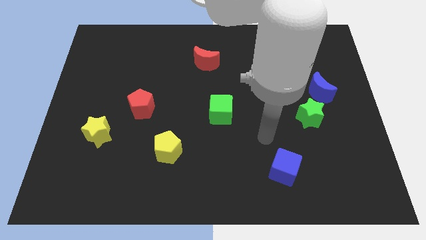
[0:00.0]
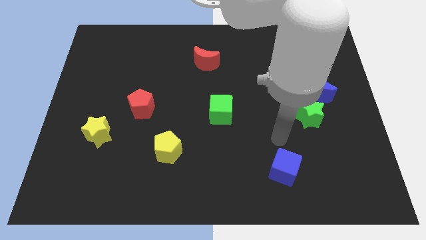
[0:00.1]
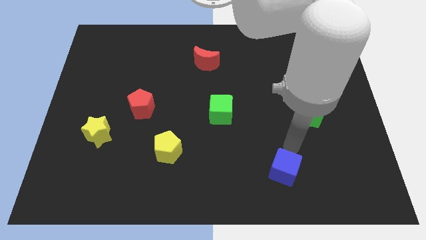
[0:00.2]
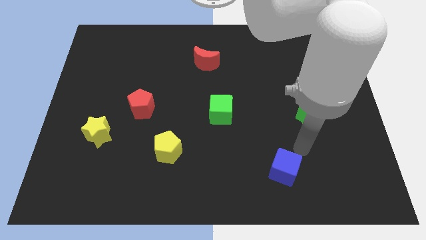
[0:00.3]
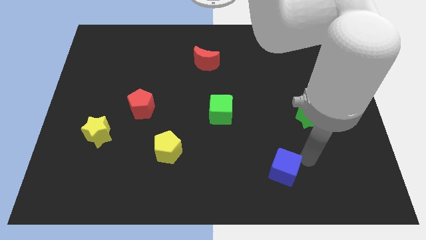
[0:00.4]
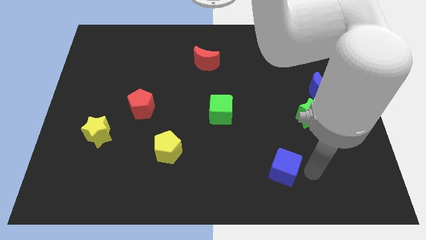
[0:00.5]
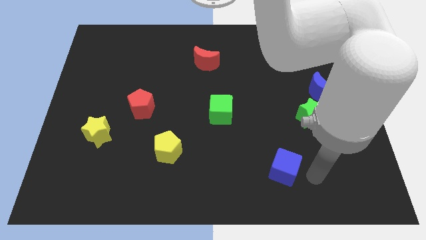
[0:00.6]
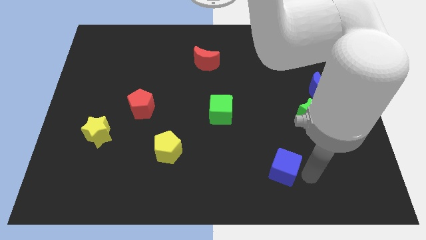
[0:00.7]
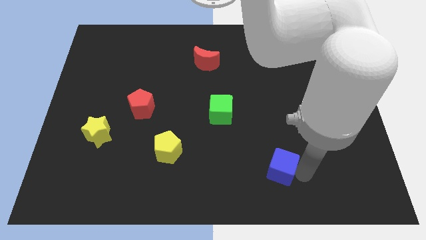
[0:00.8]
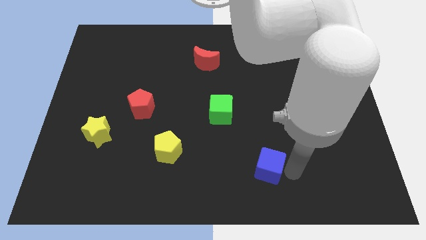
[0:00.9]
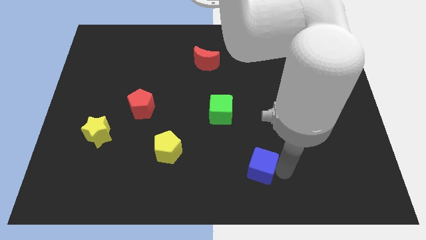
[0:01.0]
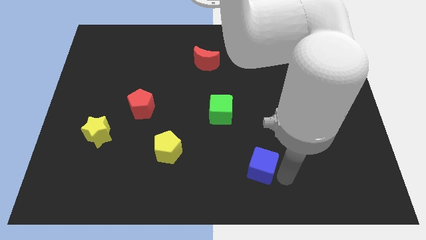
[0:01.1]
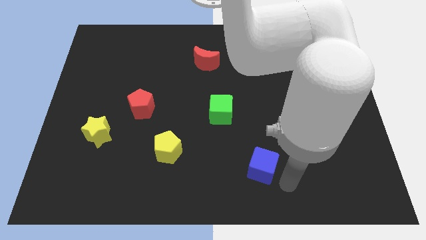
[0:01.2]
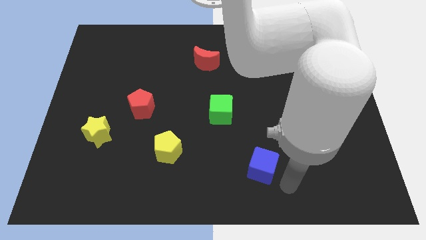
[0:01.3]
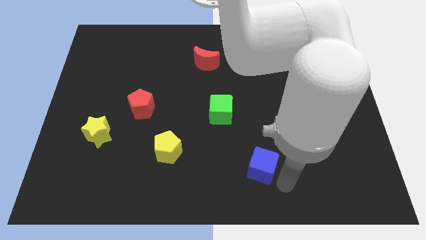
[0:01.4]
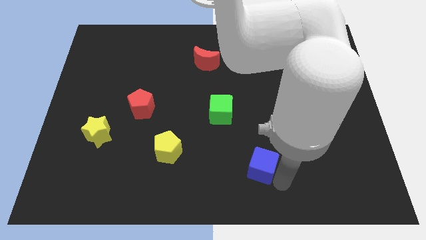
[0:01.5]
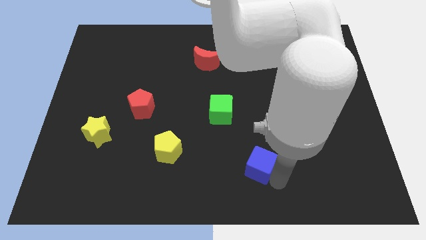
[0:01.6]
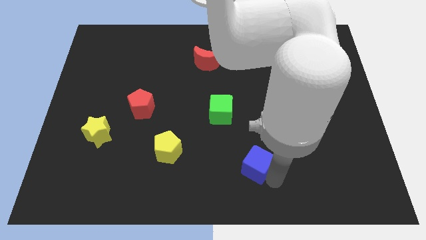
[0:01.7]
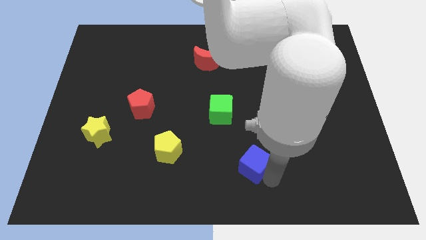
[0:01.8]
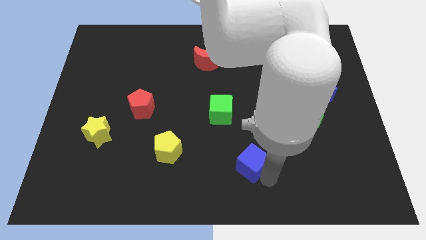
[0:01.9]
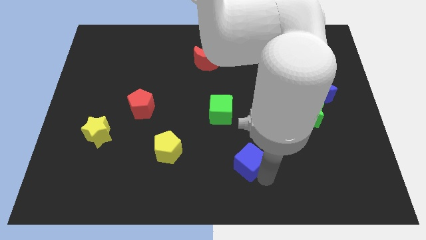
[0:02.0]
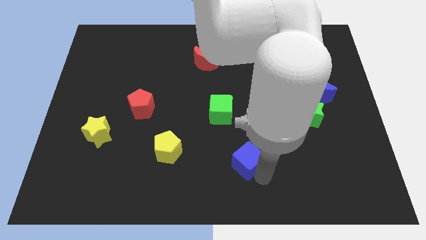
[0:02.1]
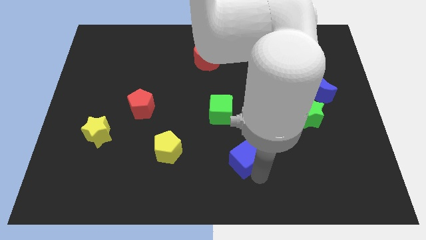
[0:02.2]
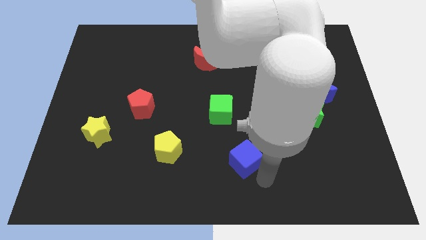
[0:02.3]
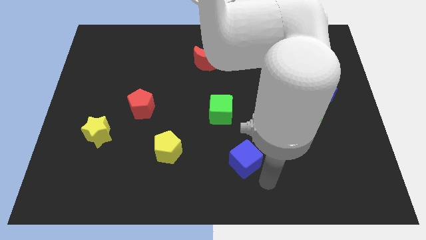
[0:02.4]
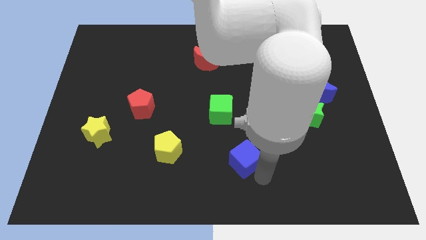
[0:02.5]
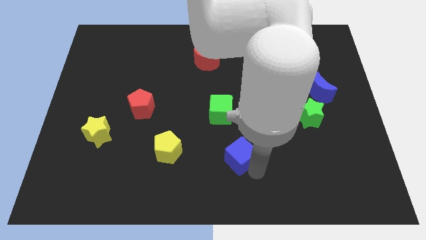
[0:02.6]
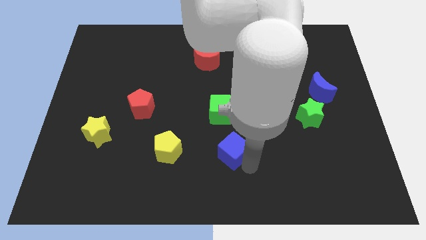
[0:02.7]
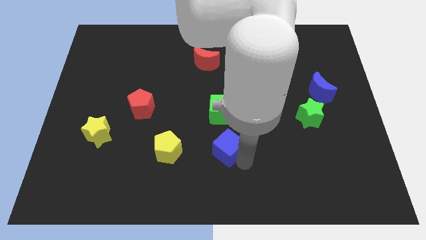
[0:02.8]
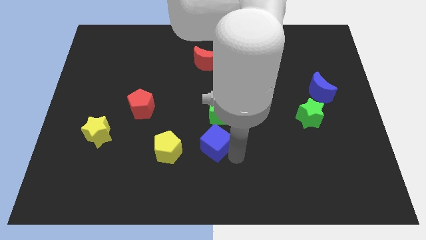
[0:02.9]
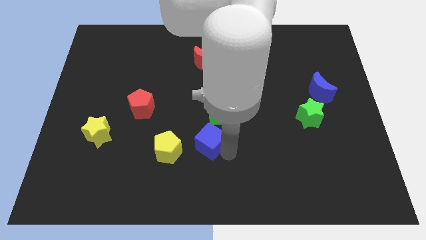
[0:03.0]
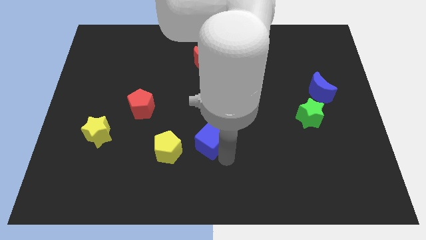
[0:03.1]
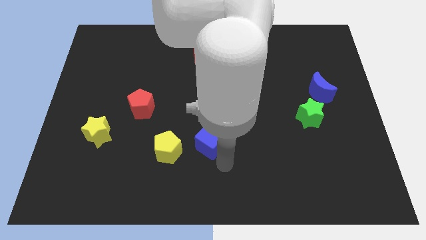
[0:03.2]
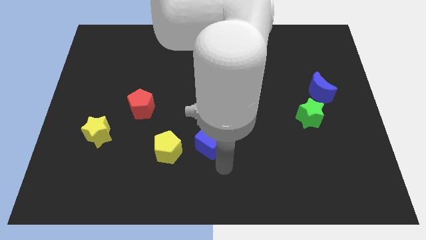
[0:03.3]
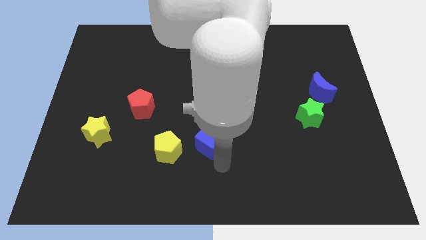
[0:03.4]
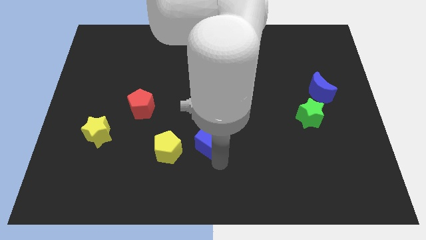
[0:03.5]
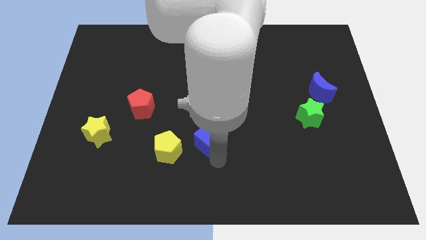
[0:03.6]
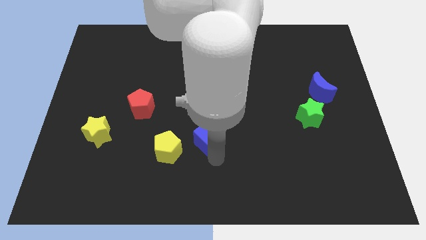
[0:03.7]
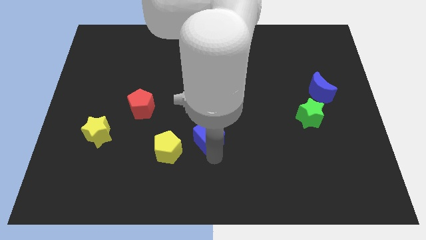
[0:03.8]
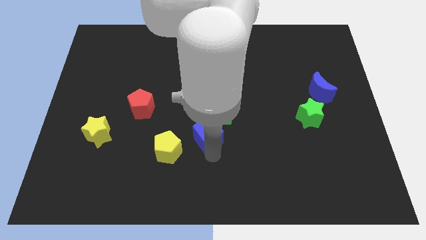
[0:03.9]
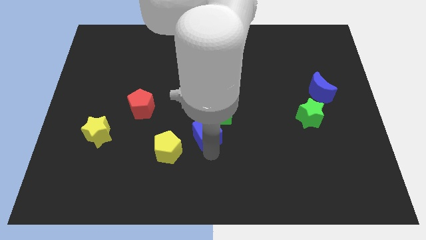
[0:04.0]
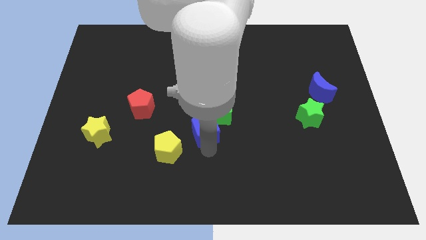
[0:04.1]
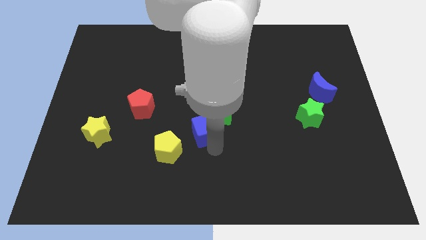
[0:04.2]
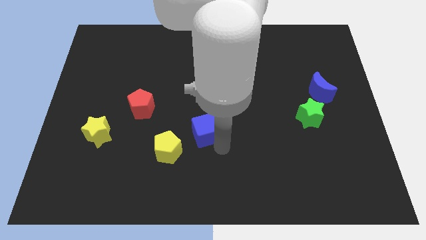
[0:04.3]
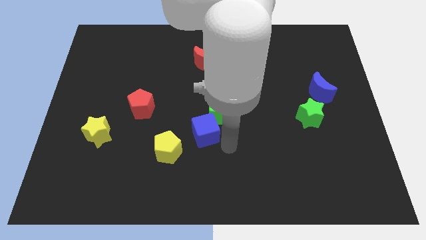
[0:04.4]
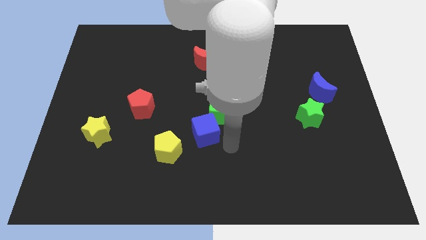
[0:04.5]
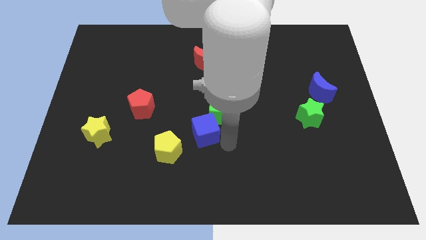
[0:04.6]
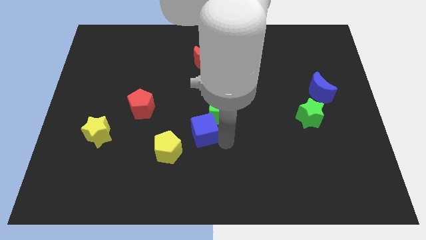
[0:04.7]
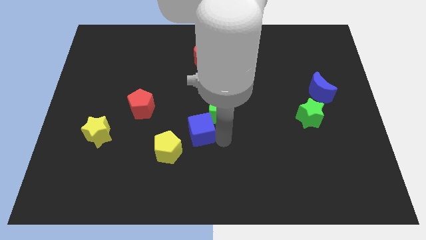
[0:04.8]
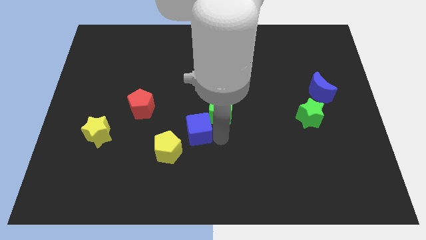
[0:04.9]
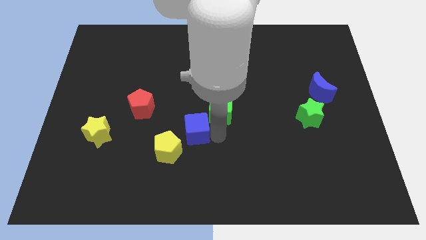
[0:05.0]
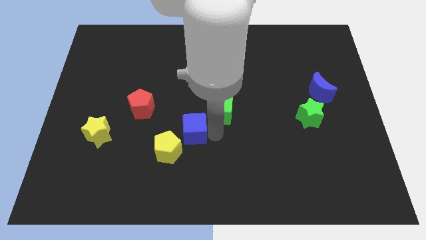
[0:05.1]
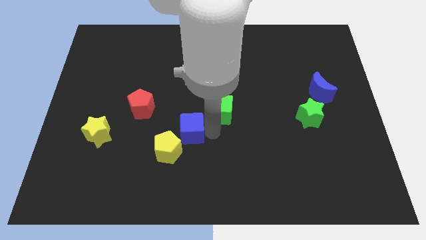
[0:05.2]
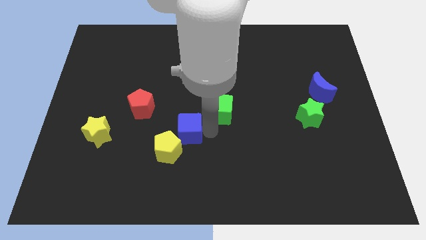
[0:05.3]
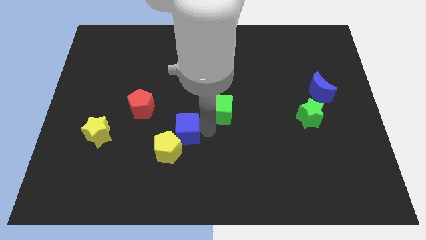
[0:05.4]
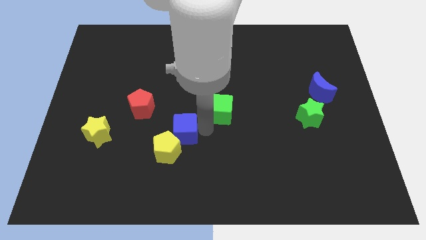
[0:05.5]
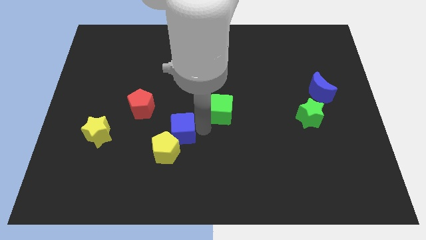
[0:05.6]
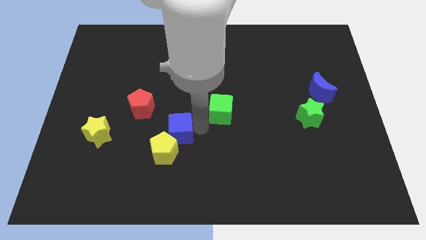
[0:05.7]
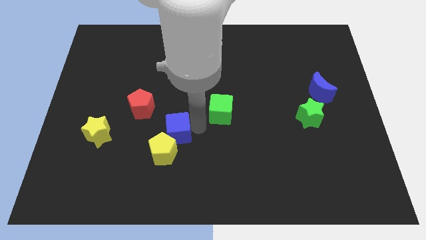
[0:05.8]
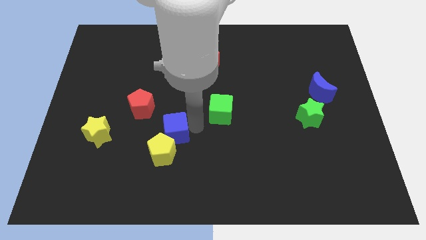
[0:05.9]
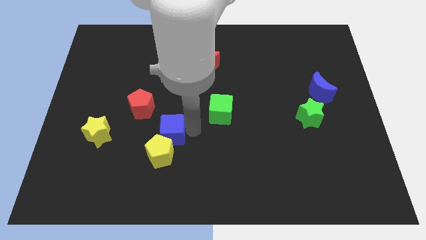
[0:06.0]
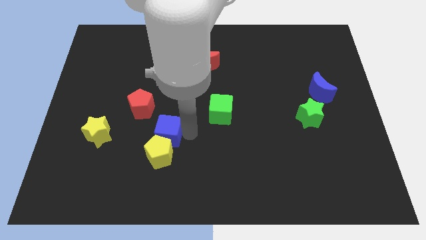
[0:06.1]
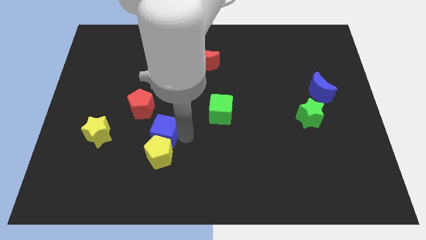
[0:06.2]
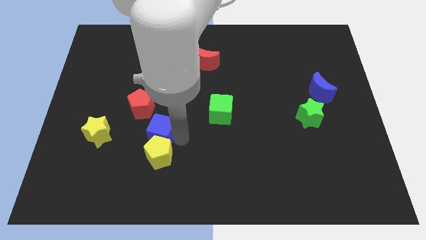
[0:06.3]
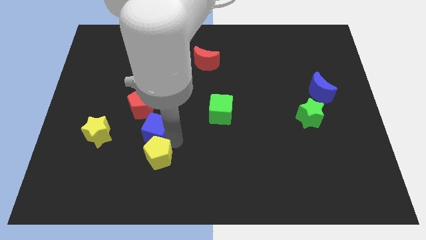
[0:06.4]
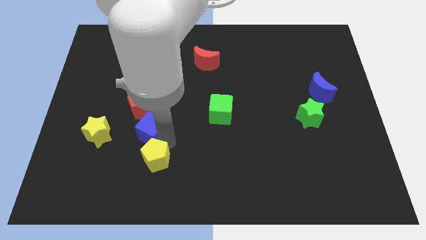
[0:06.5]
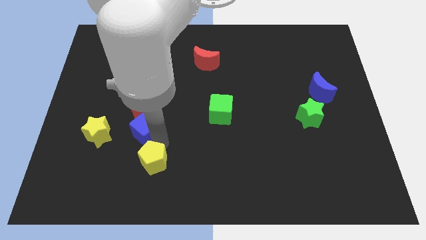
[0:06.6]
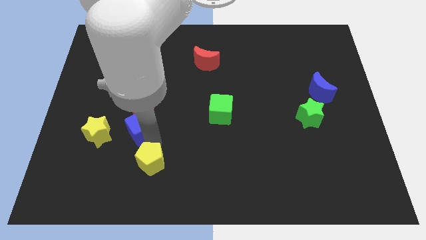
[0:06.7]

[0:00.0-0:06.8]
put the blue cube towards the red pentagon
